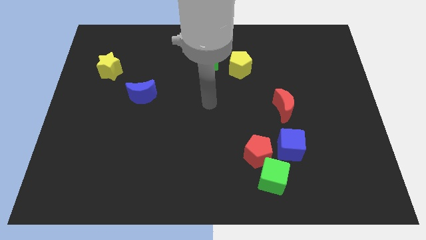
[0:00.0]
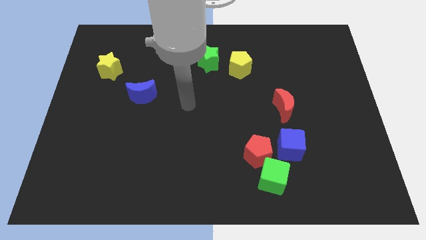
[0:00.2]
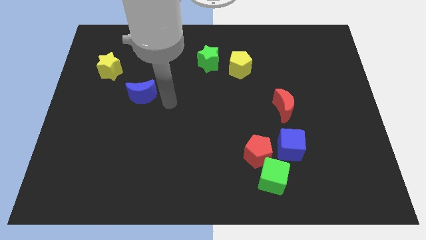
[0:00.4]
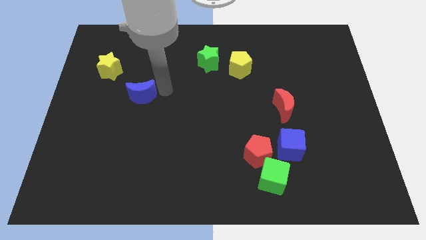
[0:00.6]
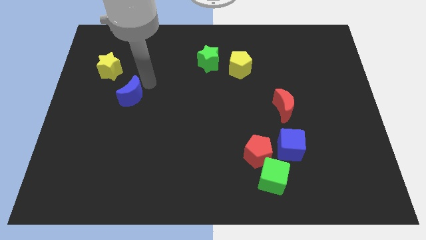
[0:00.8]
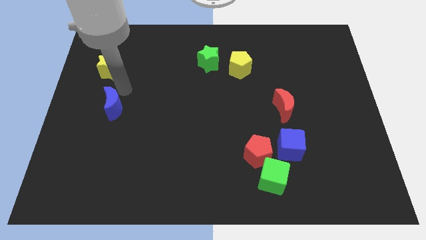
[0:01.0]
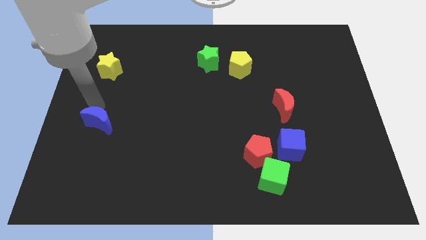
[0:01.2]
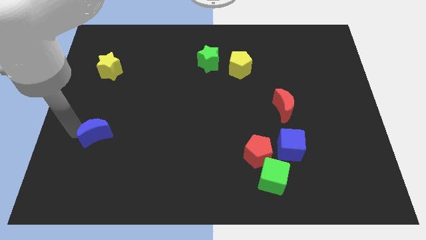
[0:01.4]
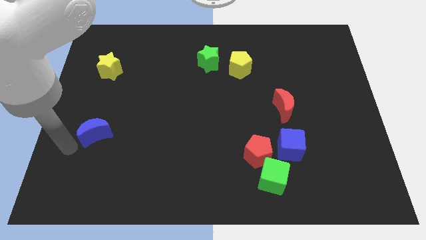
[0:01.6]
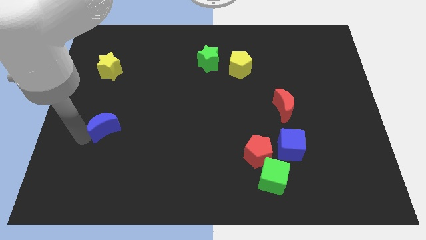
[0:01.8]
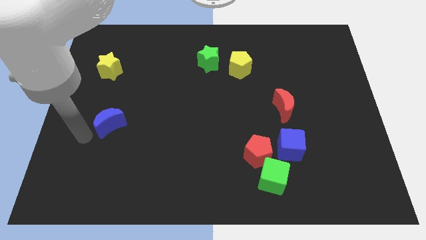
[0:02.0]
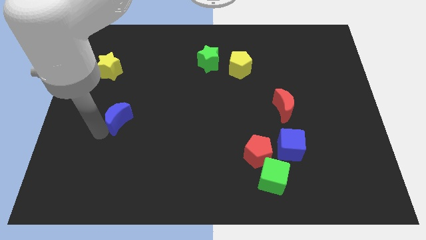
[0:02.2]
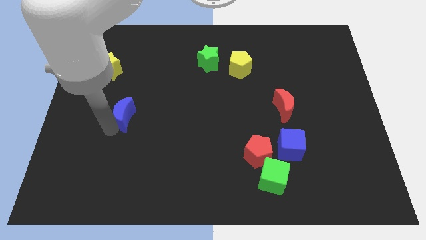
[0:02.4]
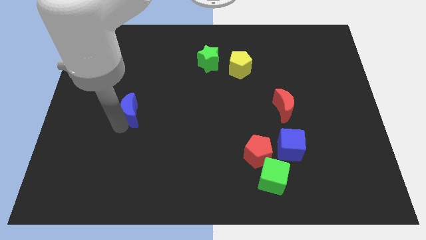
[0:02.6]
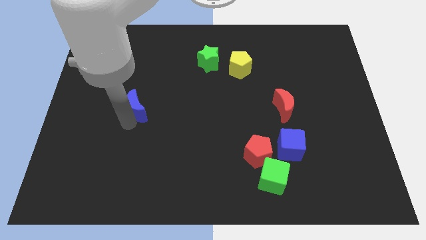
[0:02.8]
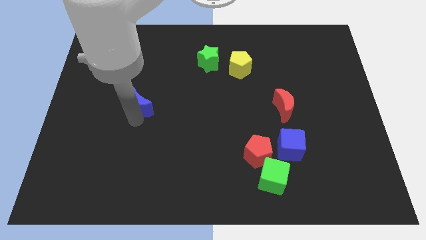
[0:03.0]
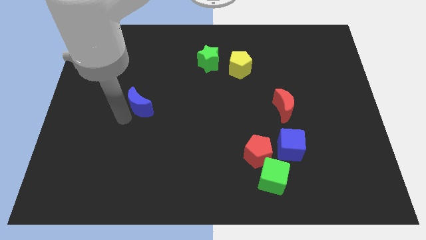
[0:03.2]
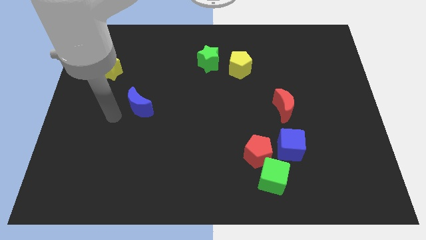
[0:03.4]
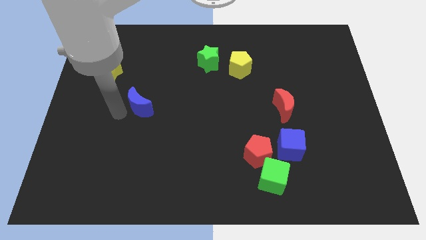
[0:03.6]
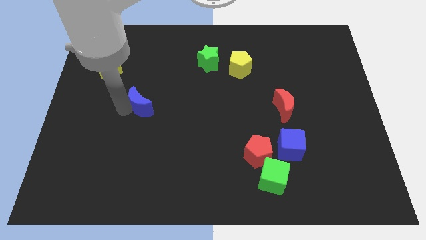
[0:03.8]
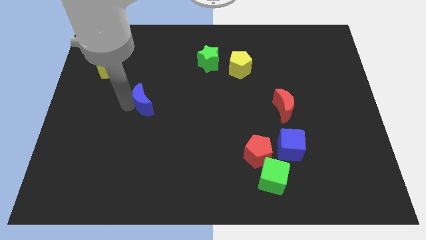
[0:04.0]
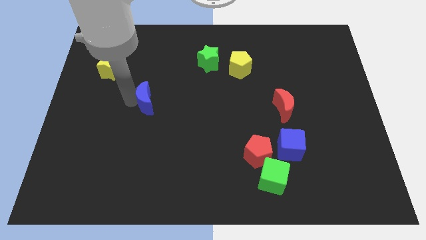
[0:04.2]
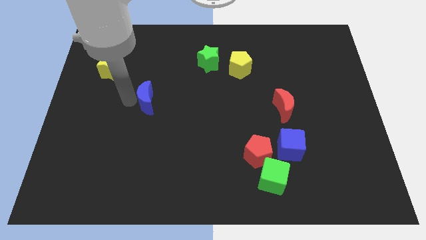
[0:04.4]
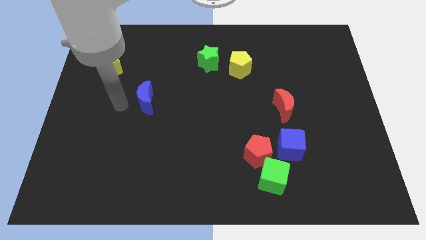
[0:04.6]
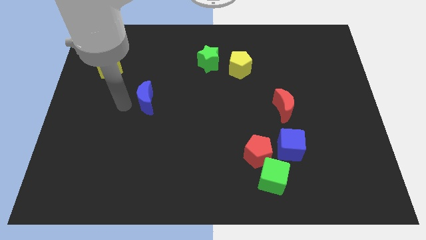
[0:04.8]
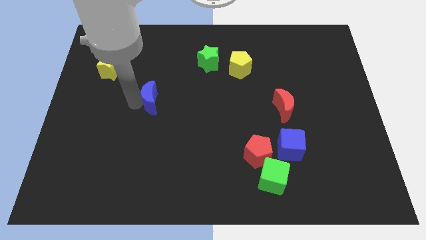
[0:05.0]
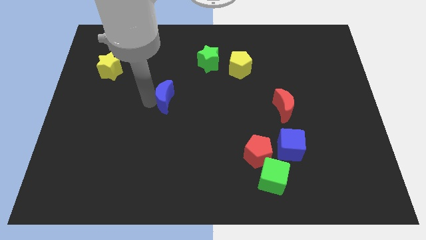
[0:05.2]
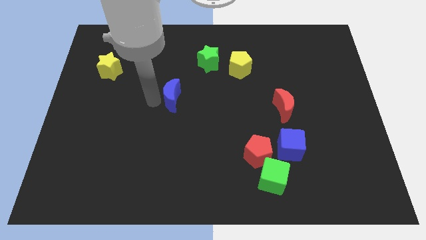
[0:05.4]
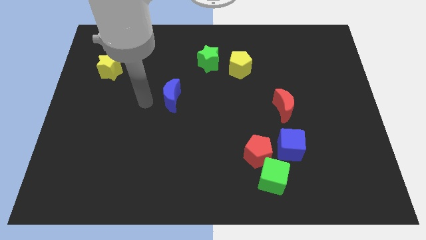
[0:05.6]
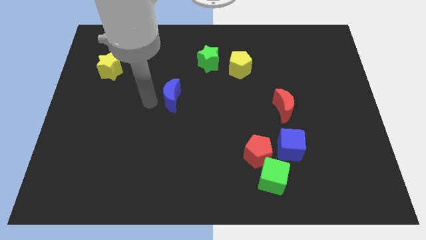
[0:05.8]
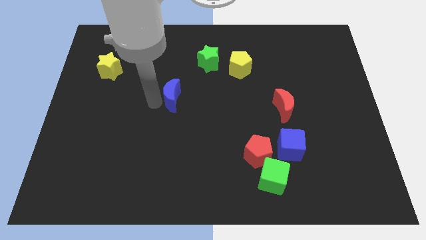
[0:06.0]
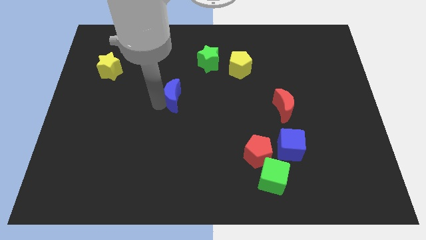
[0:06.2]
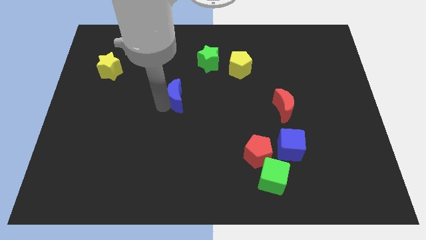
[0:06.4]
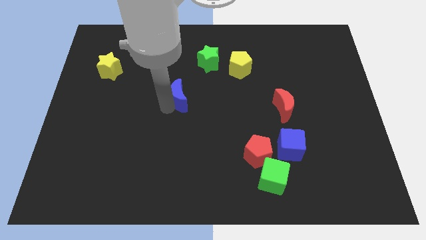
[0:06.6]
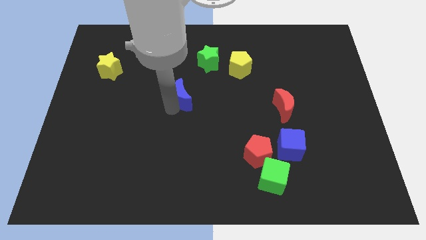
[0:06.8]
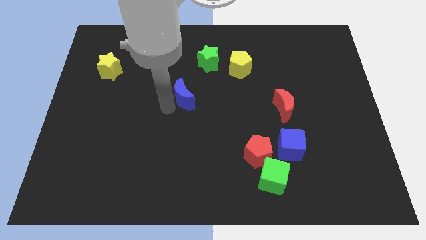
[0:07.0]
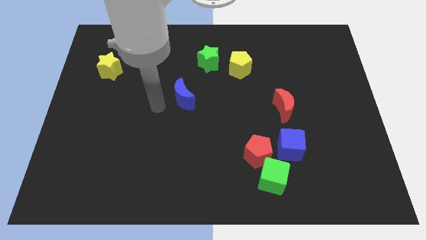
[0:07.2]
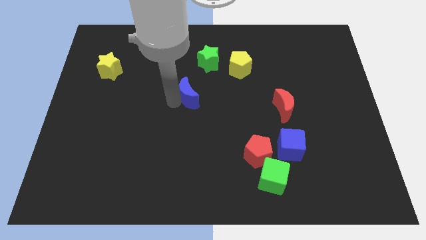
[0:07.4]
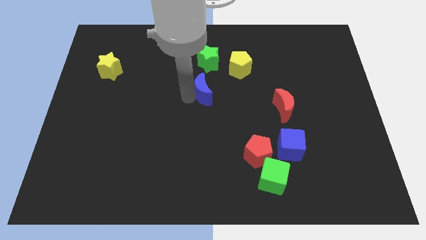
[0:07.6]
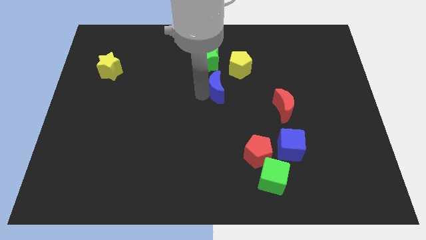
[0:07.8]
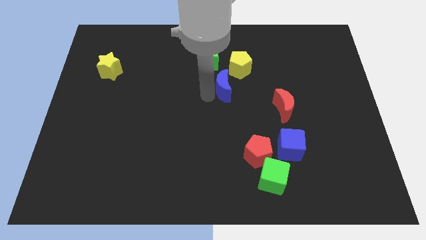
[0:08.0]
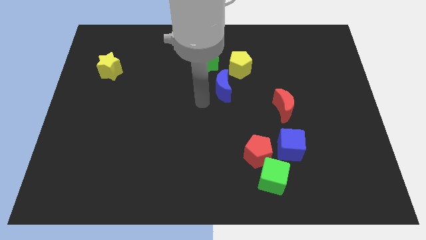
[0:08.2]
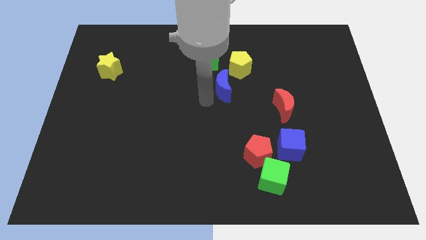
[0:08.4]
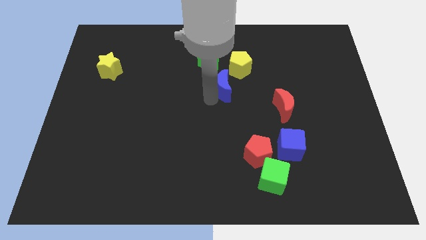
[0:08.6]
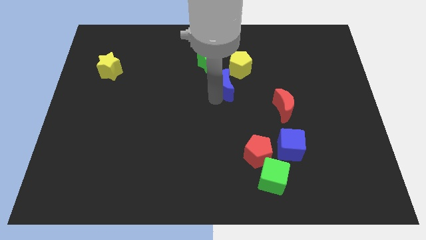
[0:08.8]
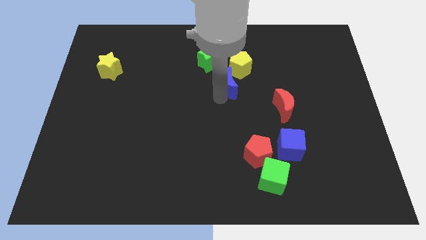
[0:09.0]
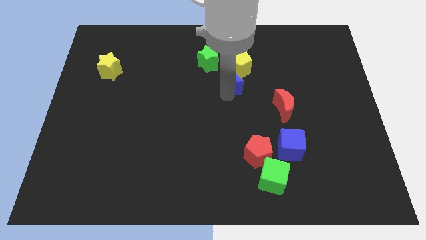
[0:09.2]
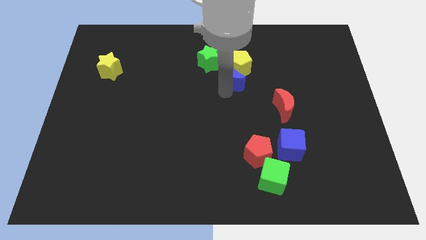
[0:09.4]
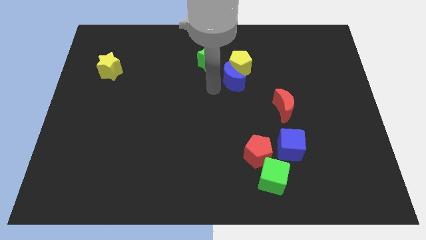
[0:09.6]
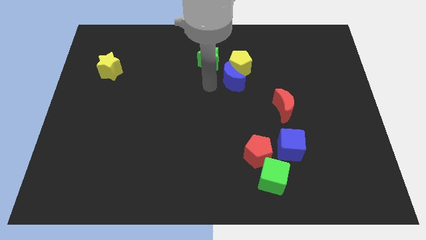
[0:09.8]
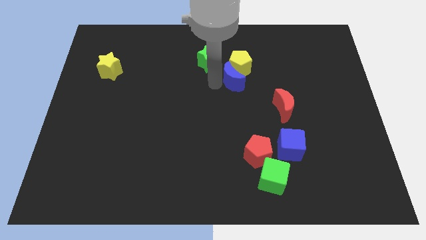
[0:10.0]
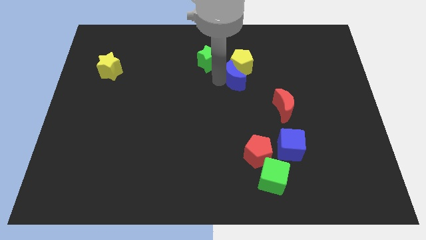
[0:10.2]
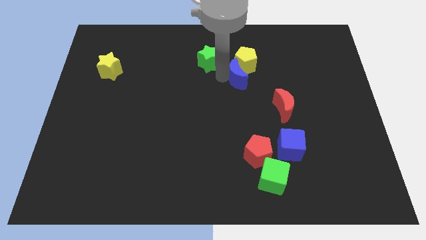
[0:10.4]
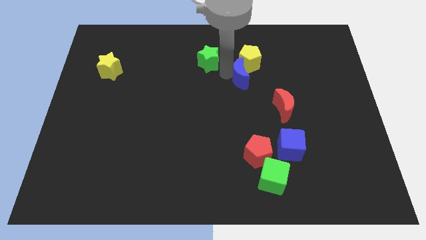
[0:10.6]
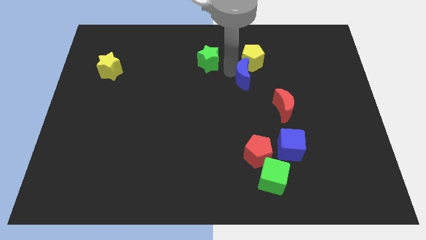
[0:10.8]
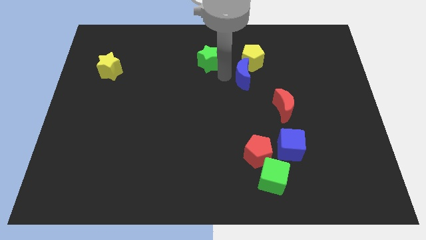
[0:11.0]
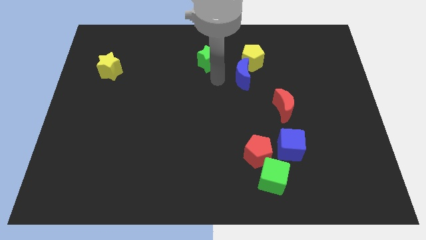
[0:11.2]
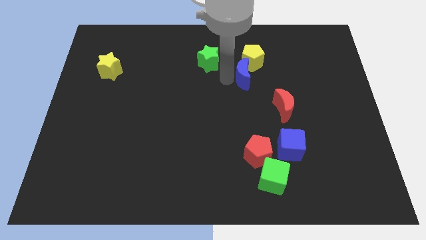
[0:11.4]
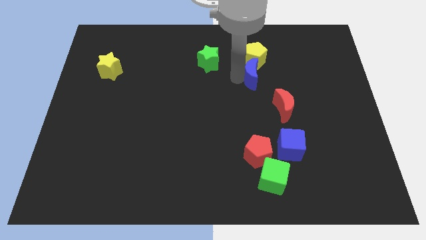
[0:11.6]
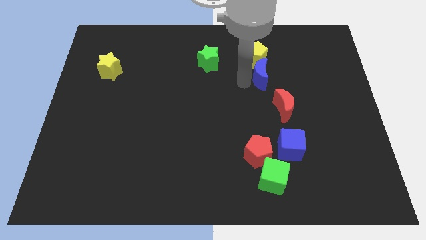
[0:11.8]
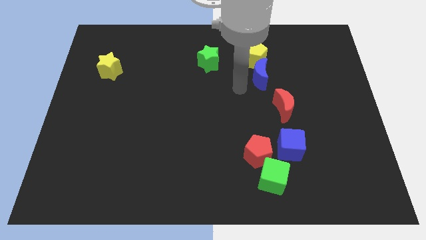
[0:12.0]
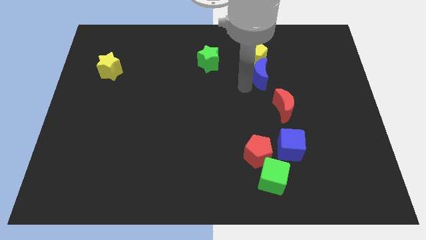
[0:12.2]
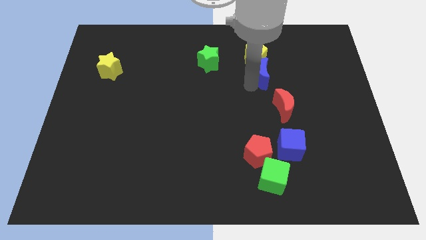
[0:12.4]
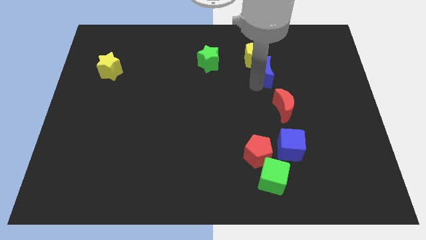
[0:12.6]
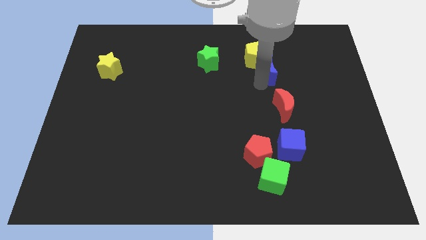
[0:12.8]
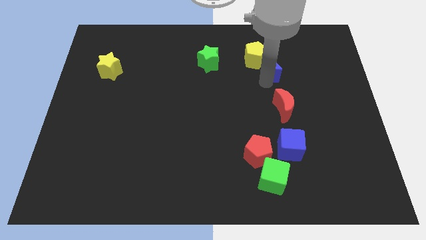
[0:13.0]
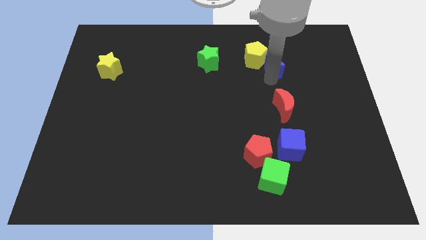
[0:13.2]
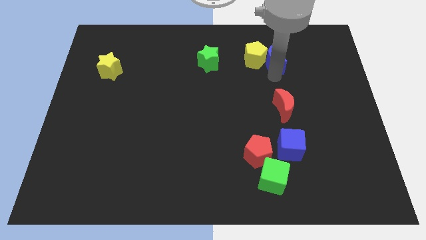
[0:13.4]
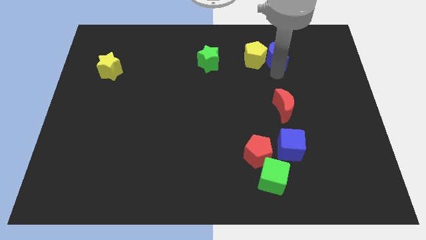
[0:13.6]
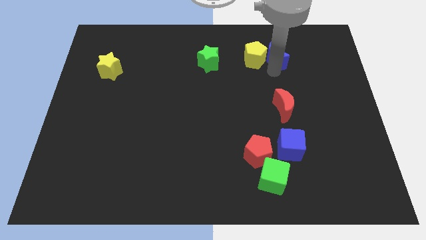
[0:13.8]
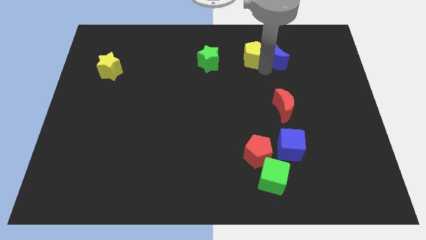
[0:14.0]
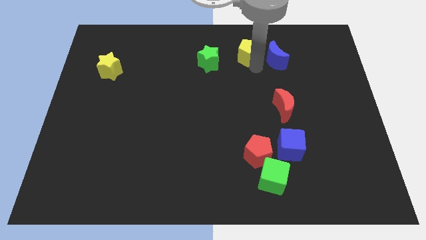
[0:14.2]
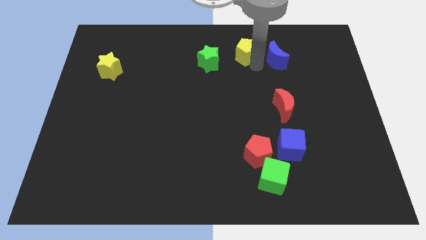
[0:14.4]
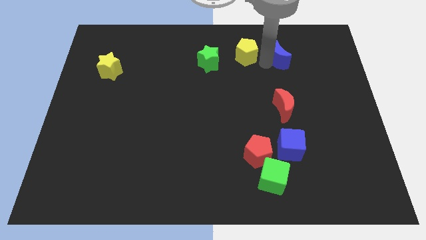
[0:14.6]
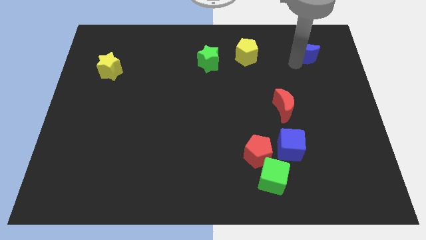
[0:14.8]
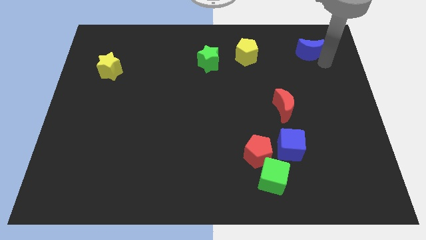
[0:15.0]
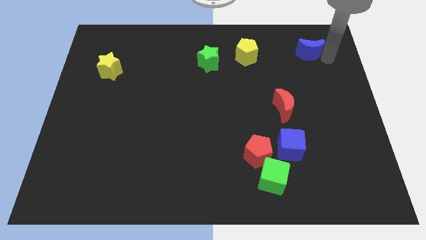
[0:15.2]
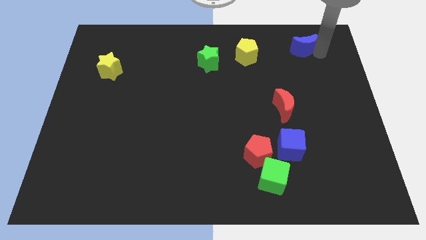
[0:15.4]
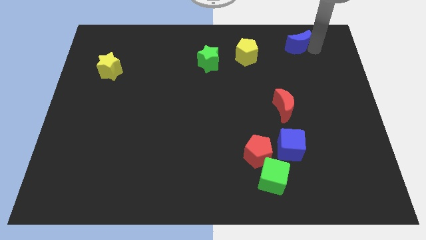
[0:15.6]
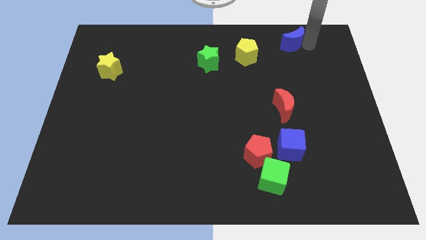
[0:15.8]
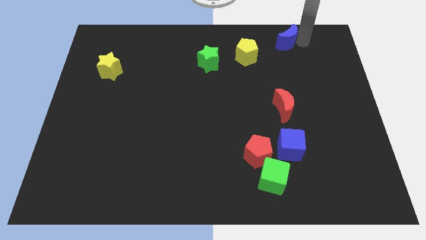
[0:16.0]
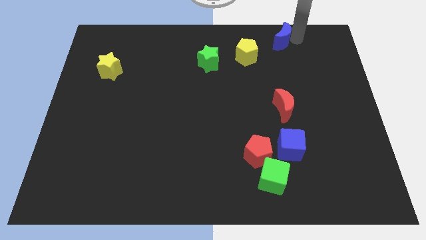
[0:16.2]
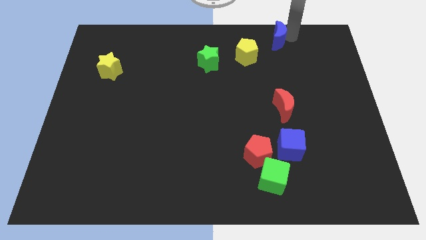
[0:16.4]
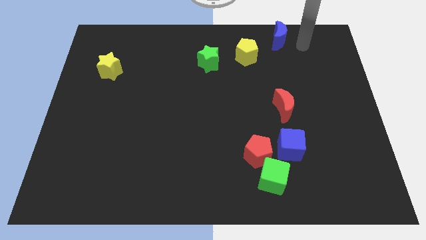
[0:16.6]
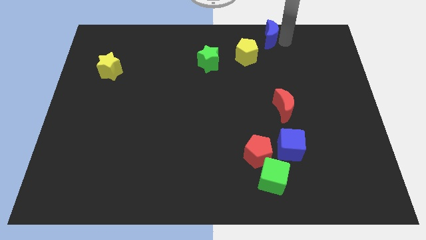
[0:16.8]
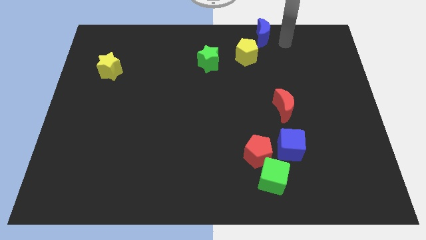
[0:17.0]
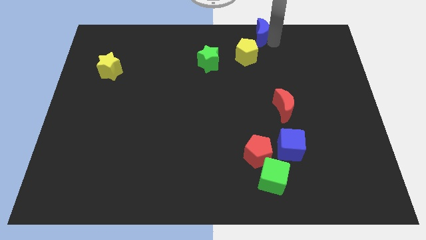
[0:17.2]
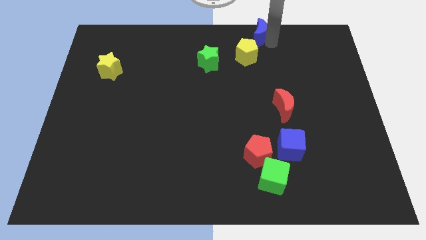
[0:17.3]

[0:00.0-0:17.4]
slide the blue moon to the top side
